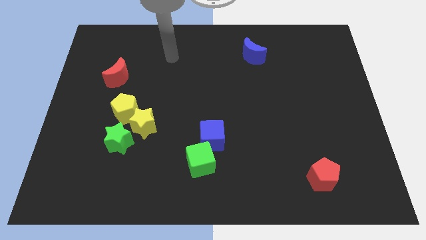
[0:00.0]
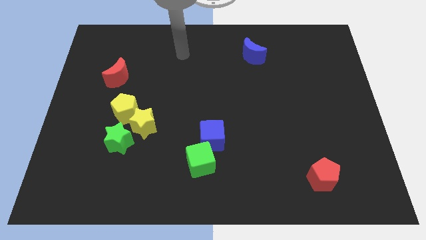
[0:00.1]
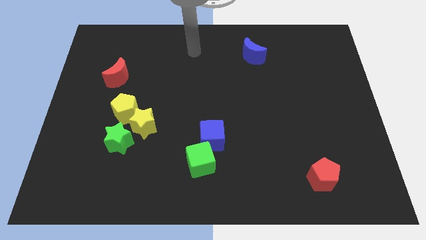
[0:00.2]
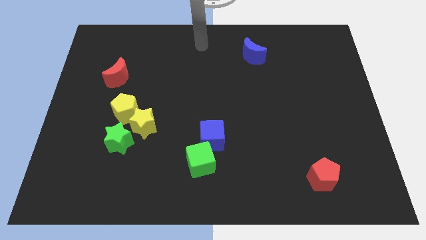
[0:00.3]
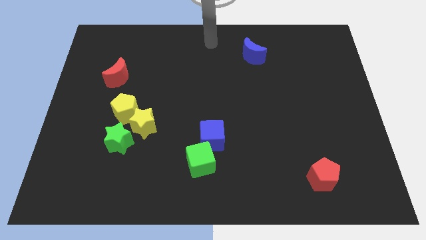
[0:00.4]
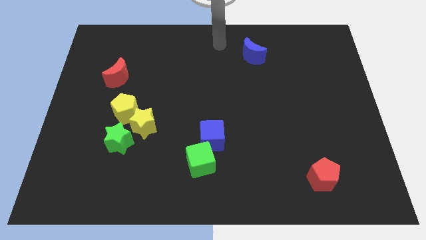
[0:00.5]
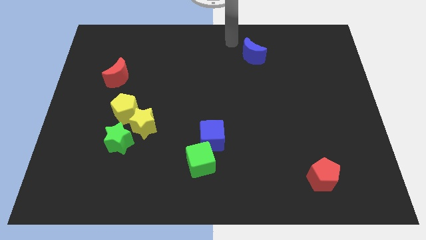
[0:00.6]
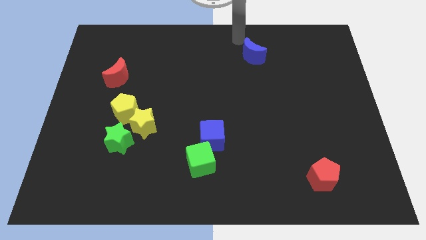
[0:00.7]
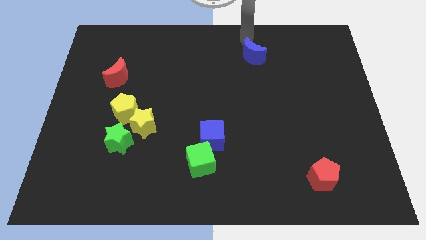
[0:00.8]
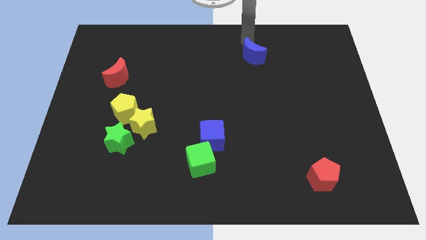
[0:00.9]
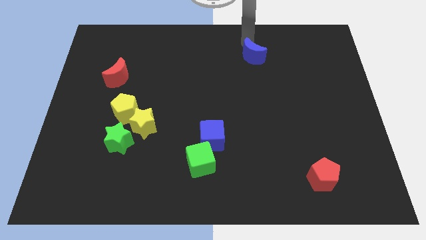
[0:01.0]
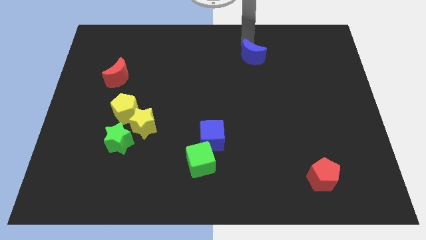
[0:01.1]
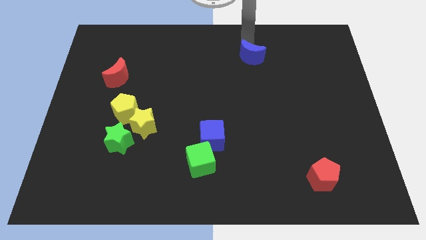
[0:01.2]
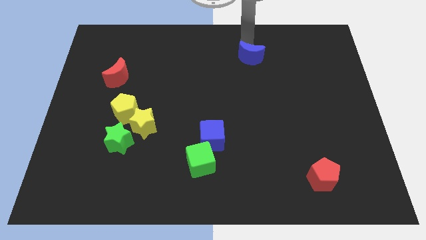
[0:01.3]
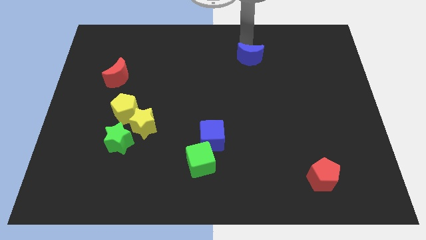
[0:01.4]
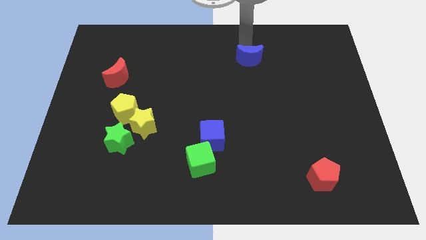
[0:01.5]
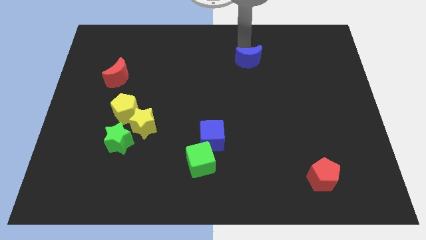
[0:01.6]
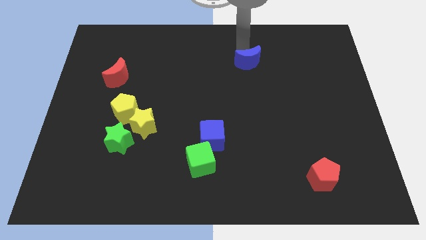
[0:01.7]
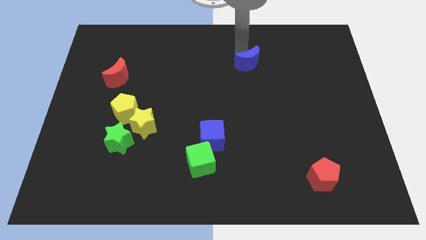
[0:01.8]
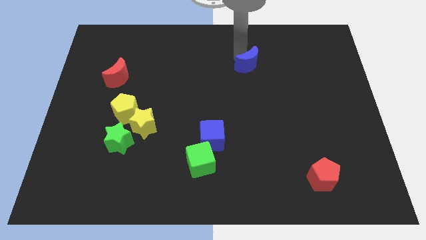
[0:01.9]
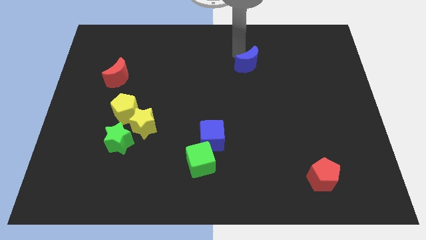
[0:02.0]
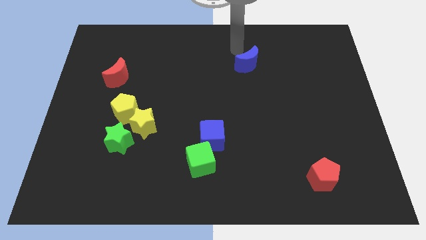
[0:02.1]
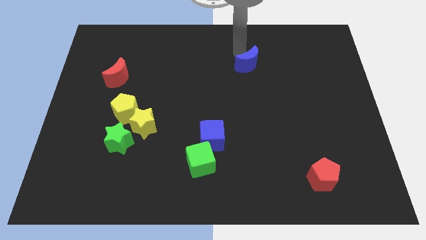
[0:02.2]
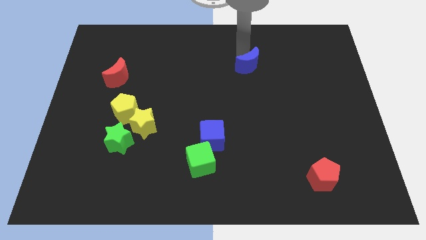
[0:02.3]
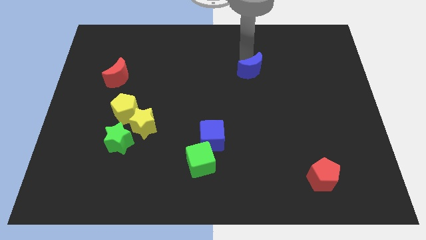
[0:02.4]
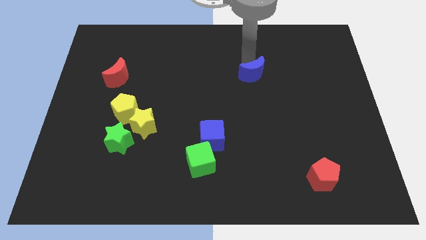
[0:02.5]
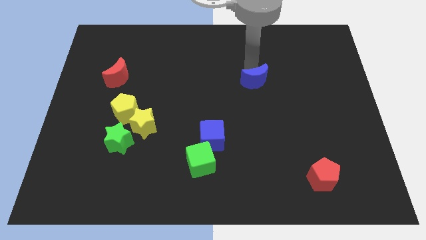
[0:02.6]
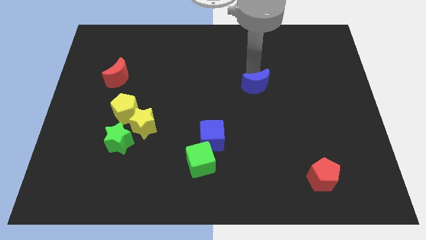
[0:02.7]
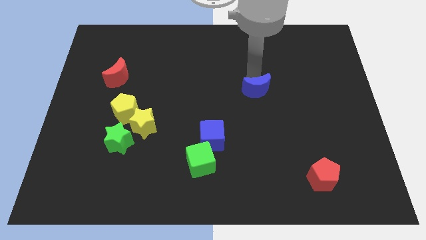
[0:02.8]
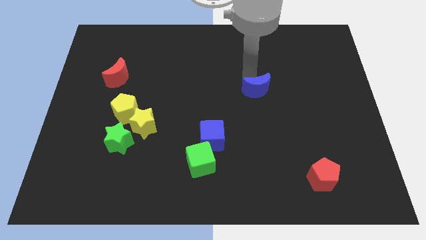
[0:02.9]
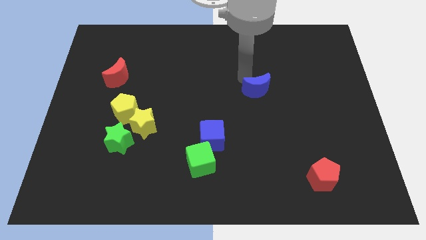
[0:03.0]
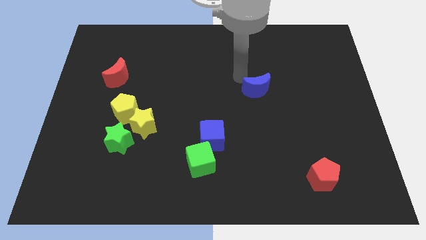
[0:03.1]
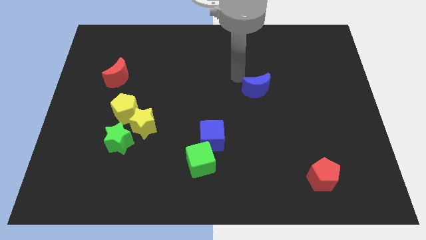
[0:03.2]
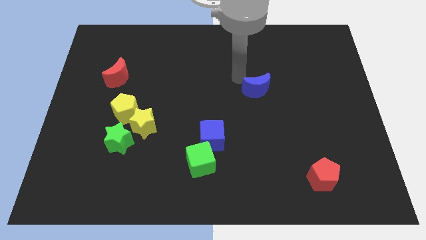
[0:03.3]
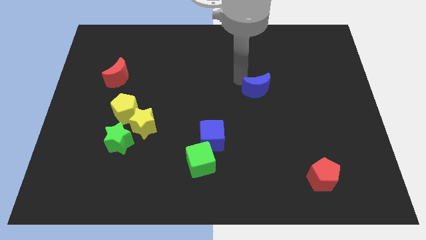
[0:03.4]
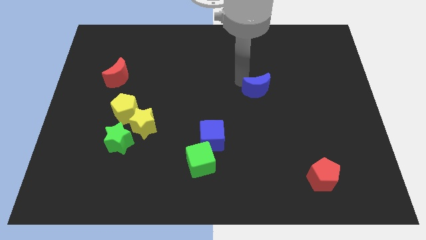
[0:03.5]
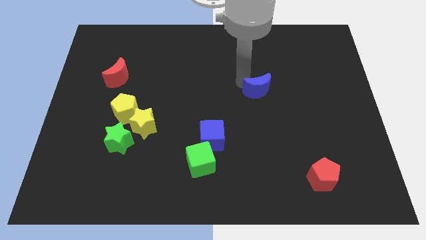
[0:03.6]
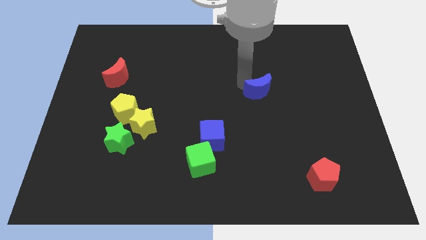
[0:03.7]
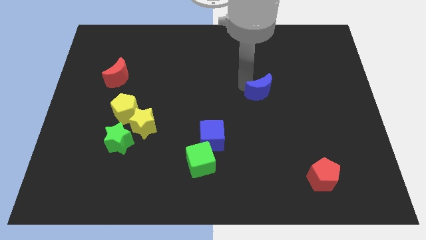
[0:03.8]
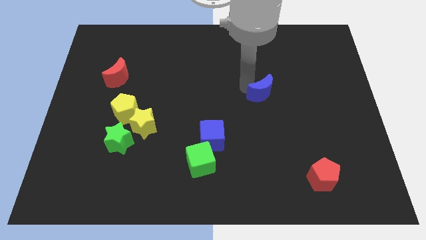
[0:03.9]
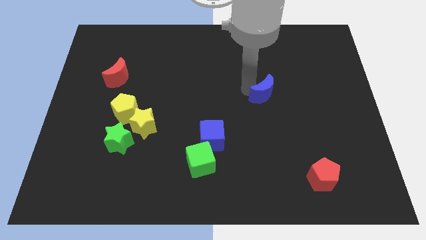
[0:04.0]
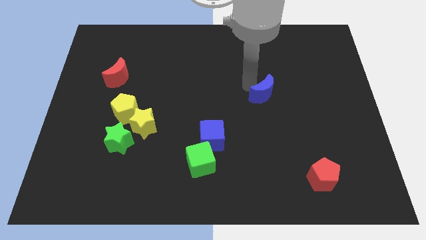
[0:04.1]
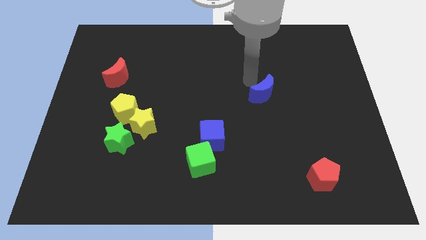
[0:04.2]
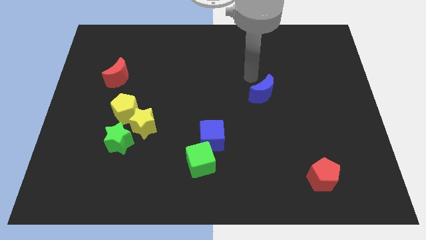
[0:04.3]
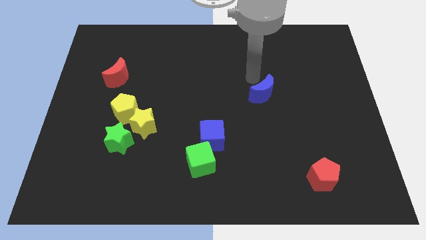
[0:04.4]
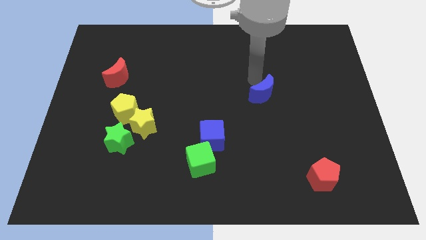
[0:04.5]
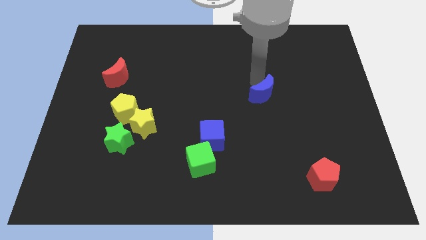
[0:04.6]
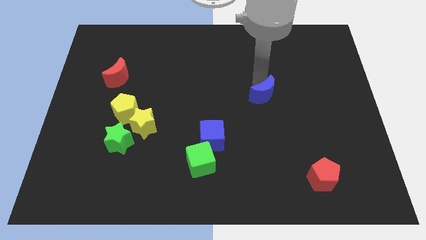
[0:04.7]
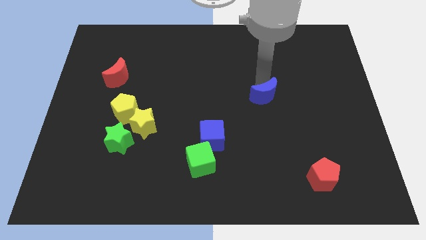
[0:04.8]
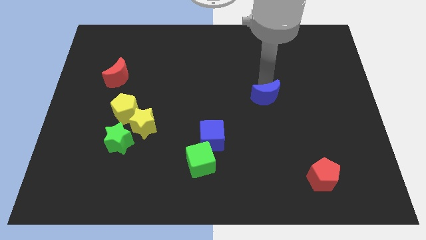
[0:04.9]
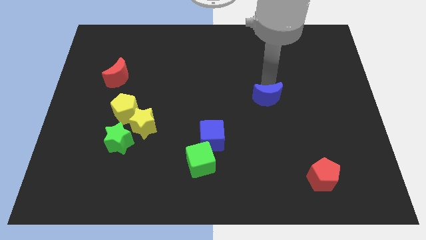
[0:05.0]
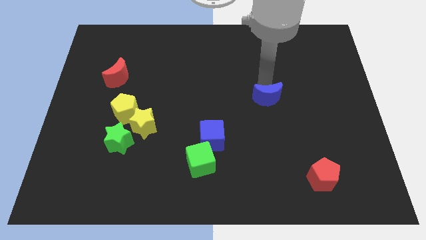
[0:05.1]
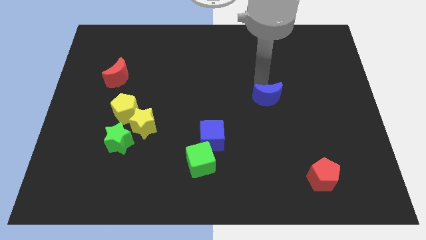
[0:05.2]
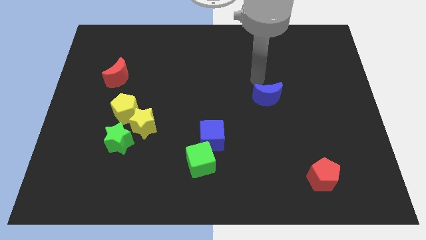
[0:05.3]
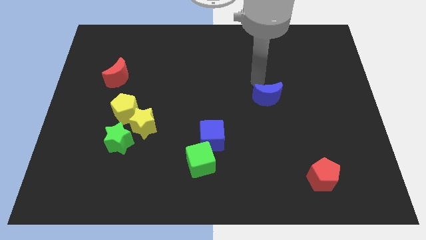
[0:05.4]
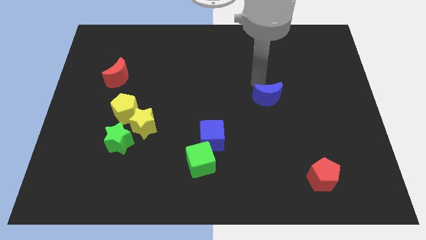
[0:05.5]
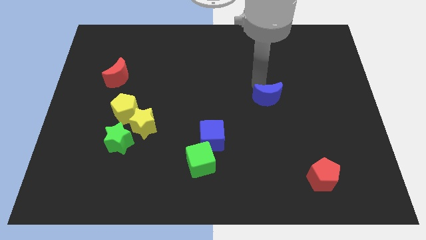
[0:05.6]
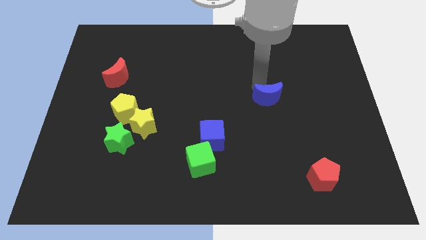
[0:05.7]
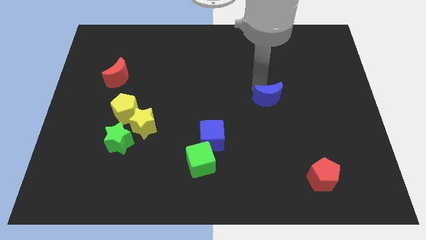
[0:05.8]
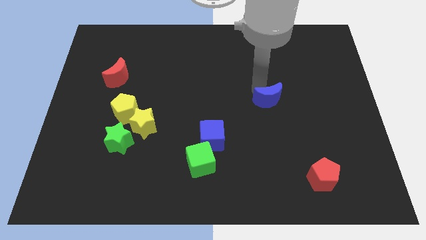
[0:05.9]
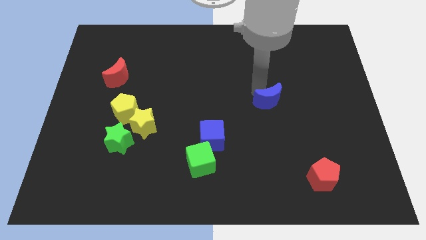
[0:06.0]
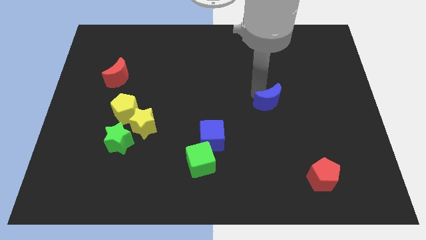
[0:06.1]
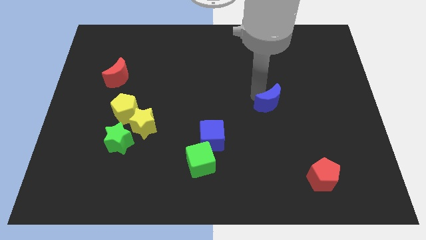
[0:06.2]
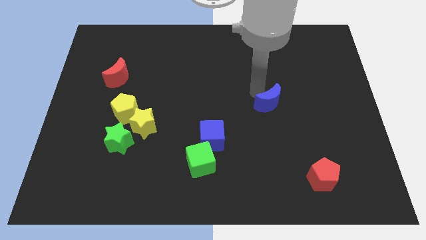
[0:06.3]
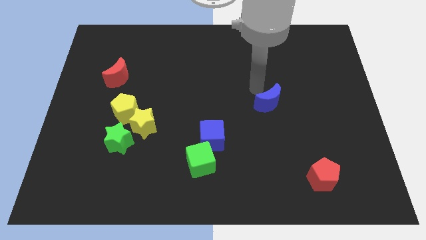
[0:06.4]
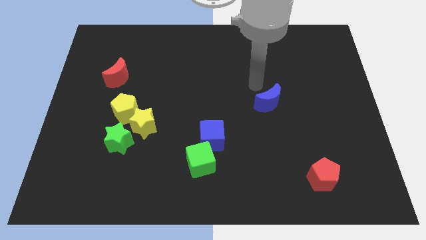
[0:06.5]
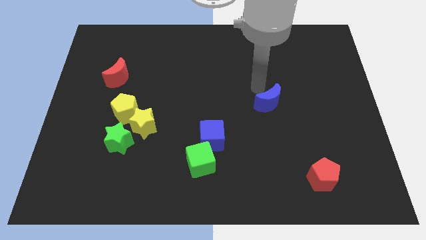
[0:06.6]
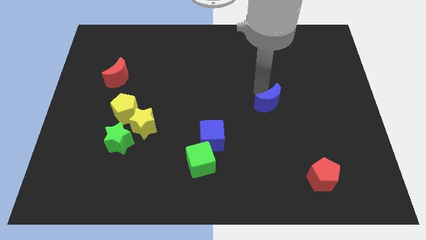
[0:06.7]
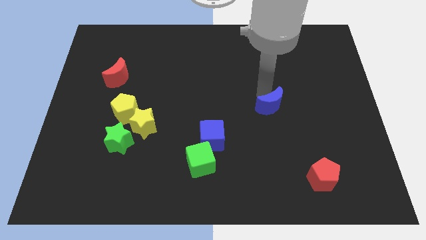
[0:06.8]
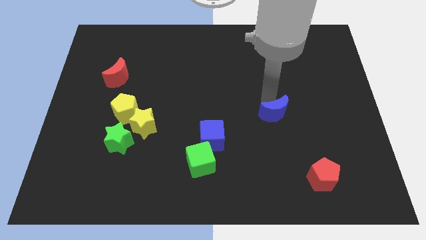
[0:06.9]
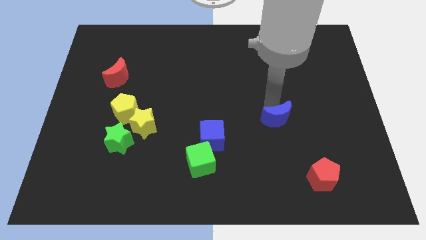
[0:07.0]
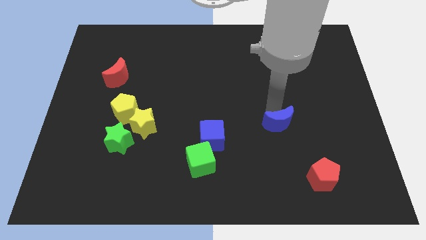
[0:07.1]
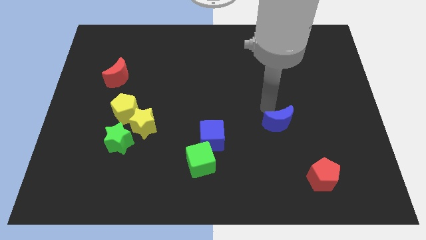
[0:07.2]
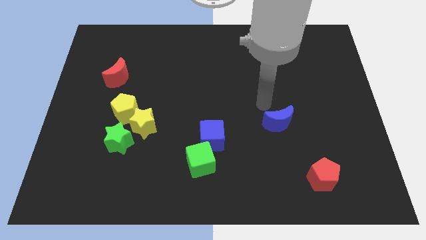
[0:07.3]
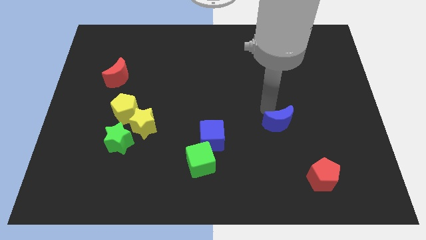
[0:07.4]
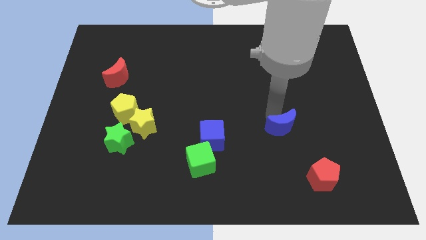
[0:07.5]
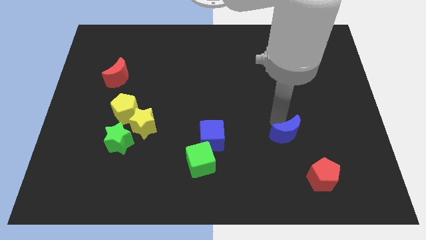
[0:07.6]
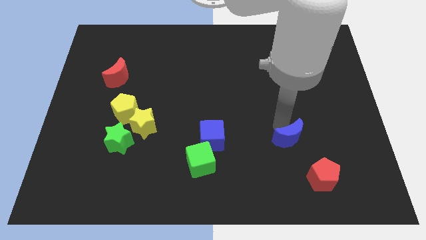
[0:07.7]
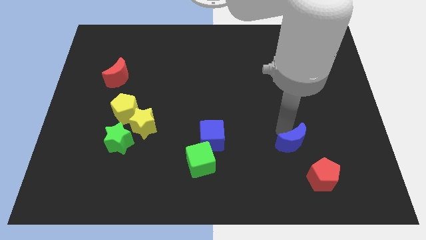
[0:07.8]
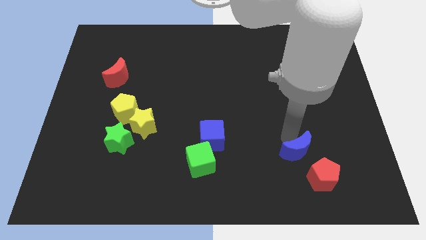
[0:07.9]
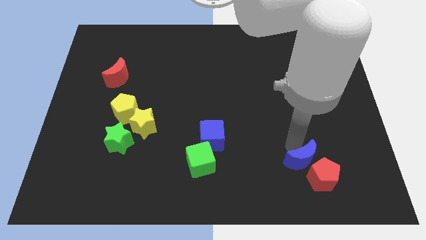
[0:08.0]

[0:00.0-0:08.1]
slide the blue moon close to the red pentagon
